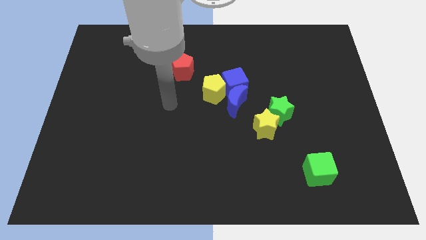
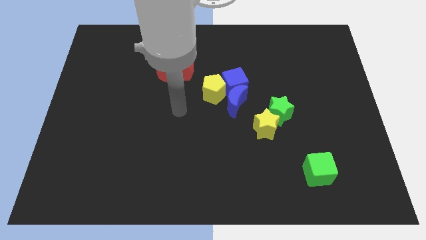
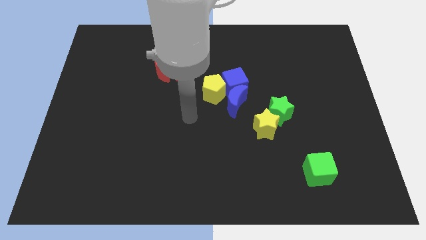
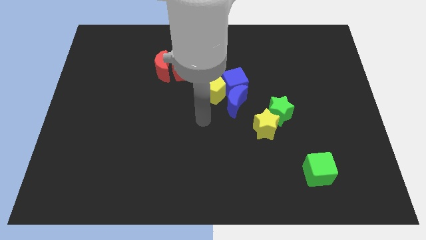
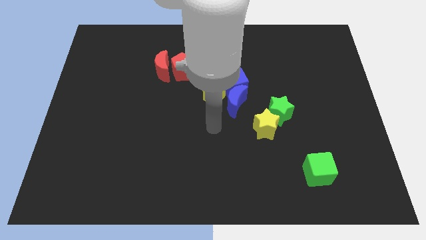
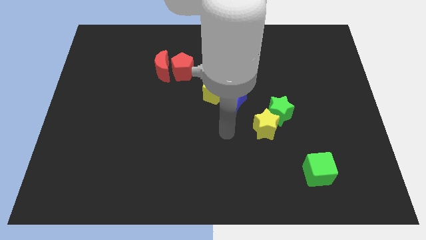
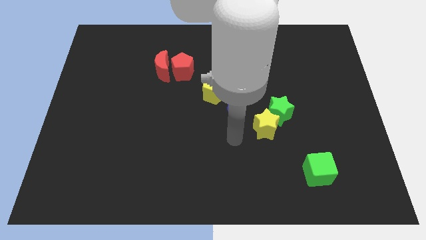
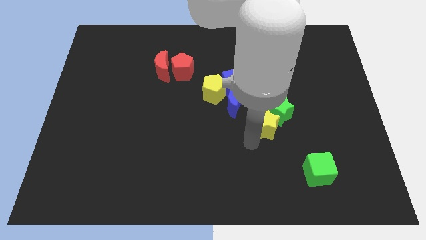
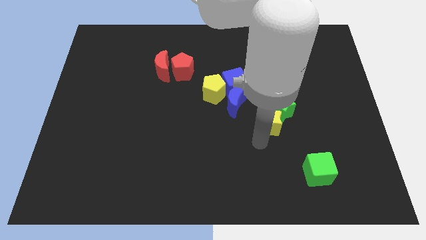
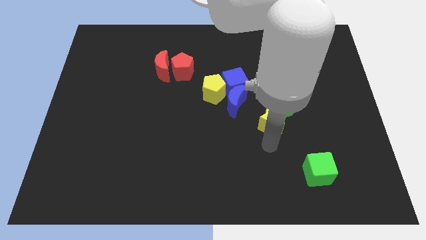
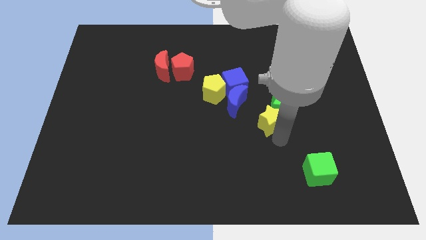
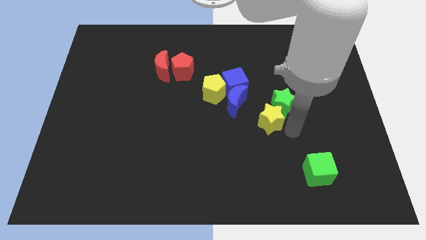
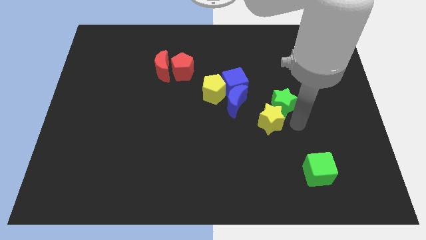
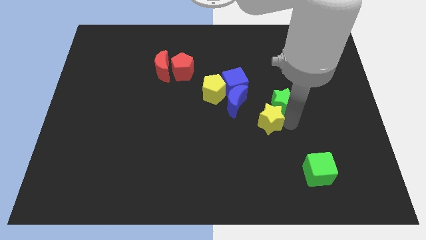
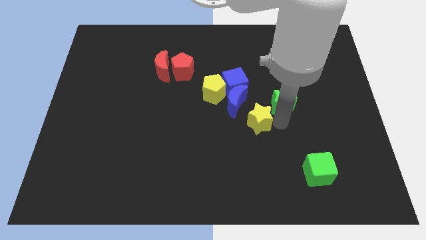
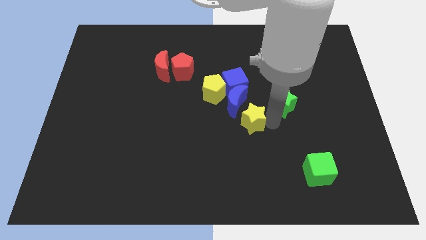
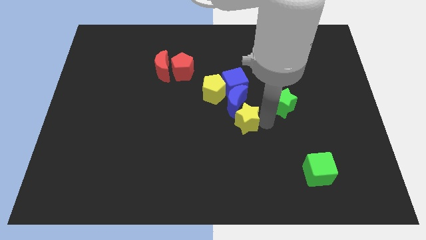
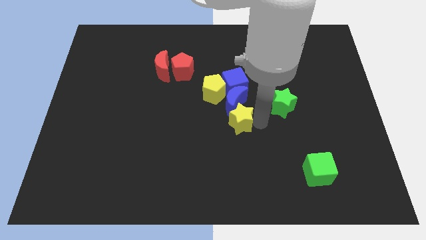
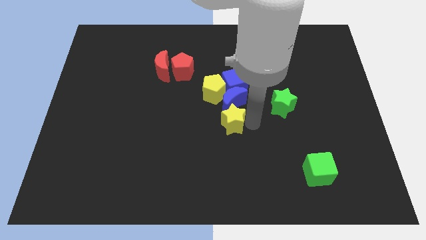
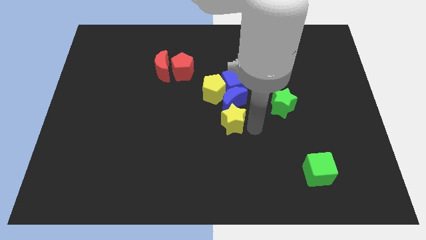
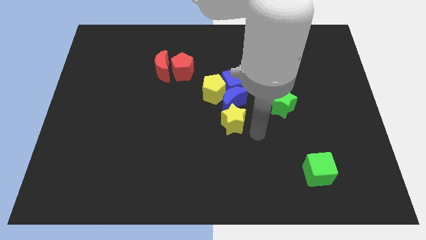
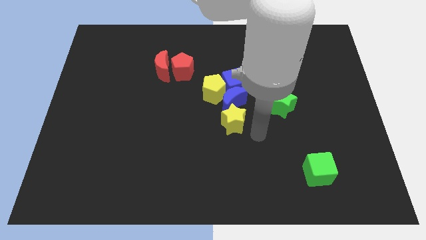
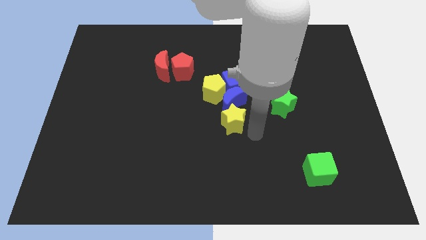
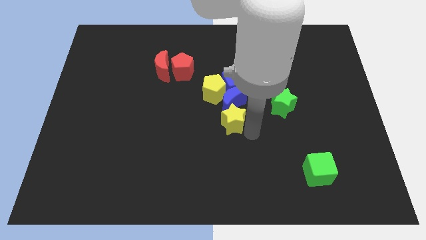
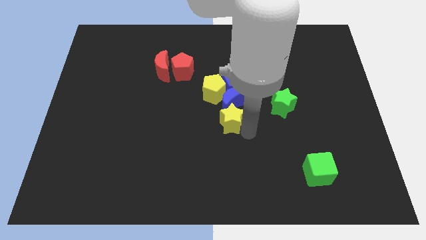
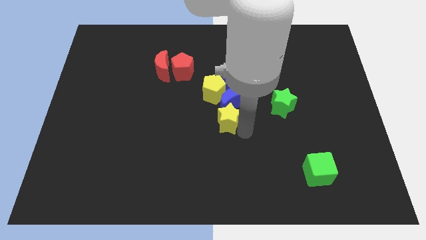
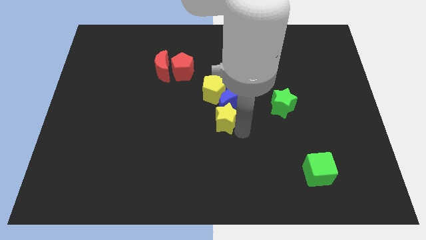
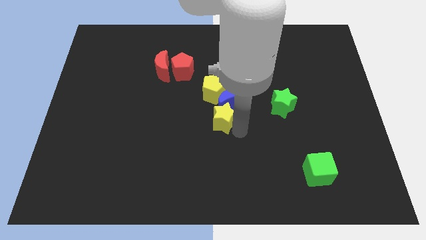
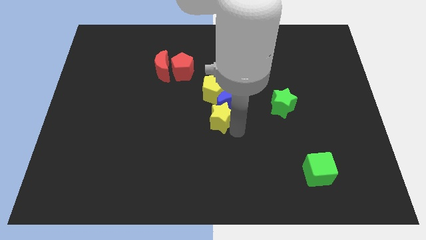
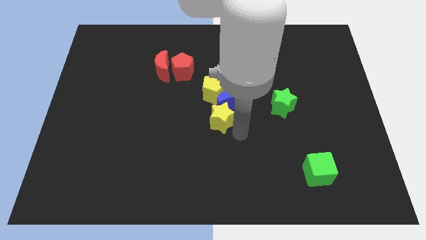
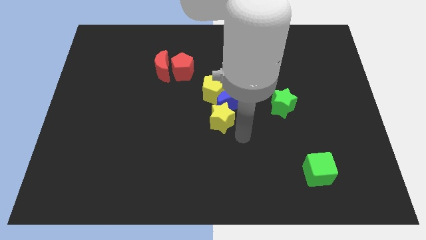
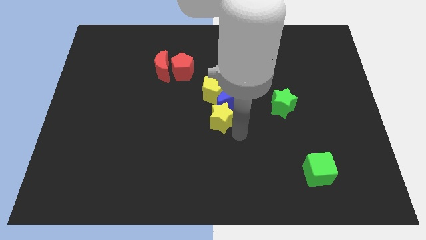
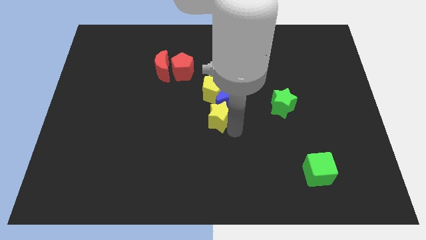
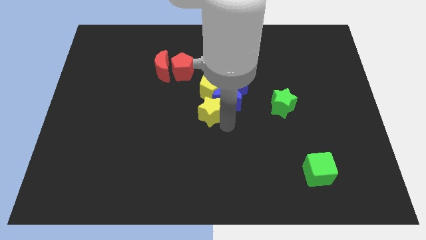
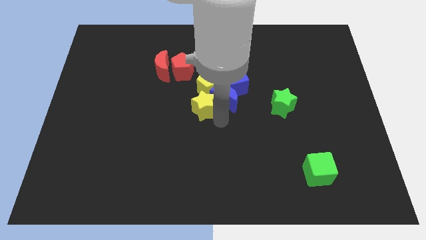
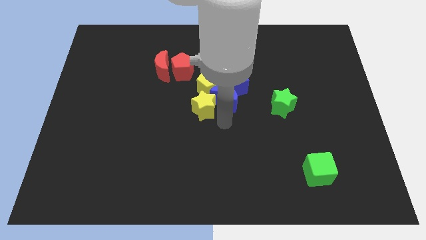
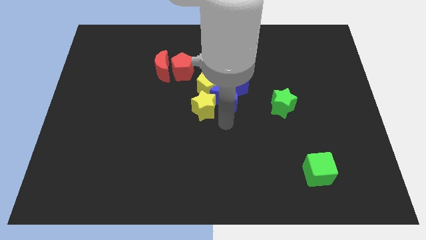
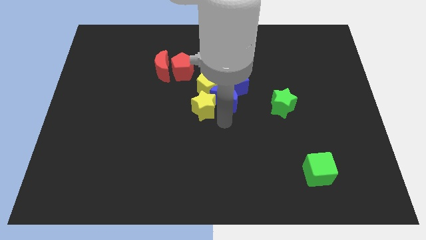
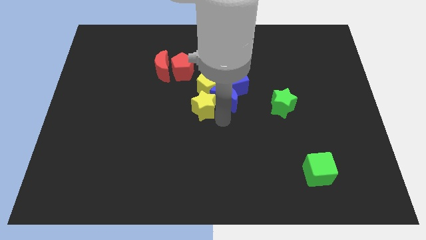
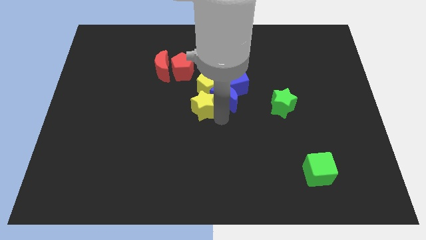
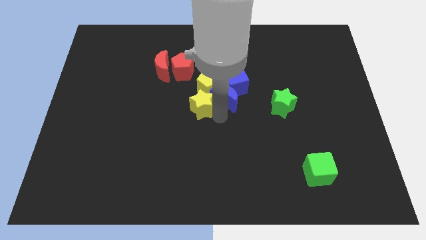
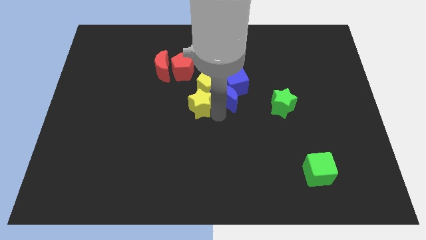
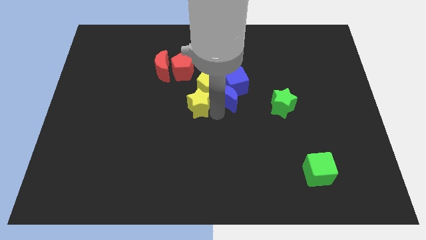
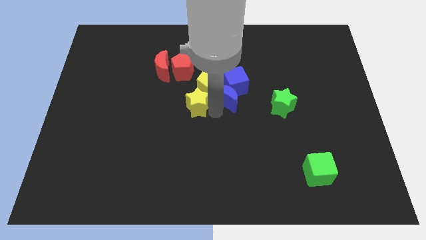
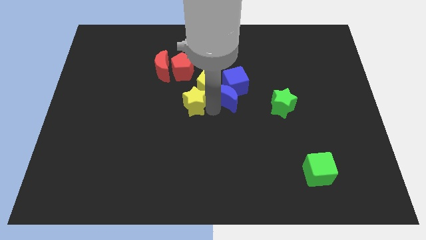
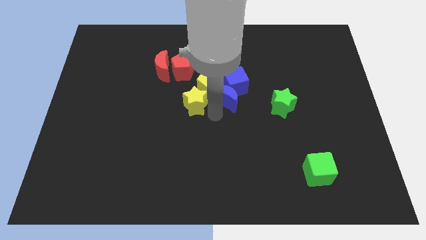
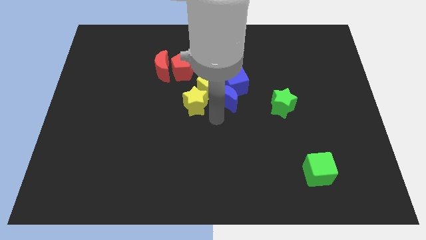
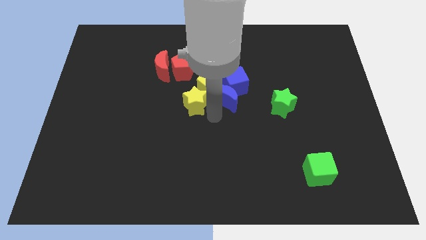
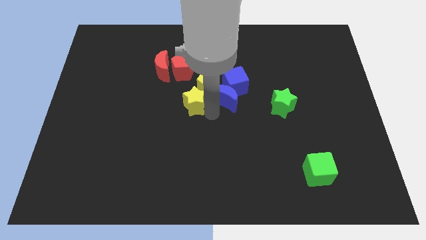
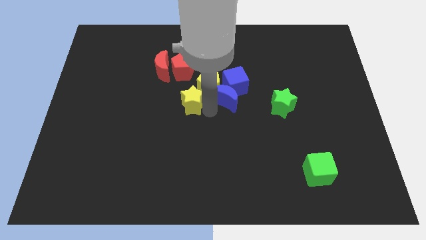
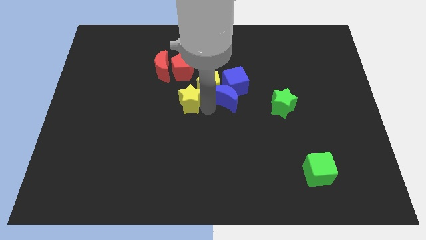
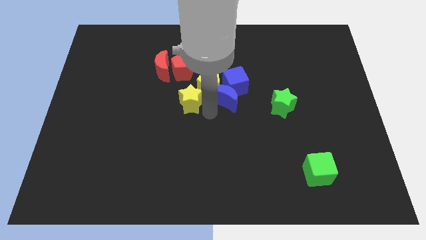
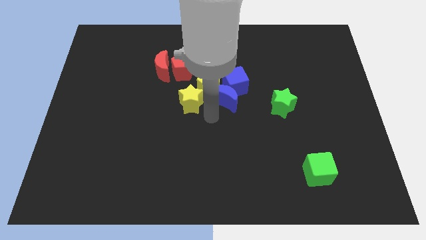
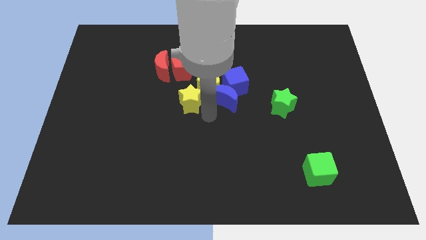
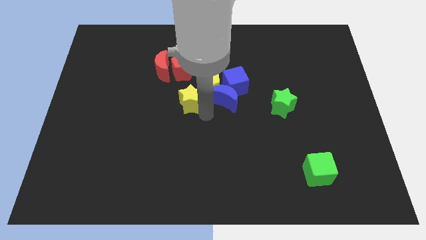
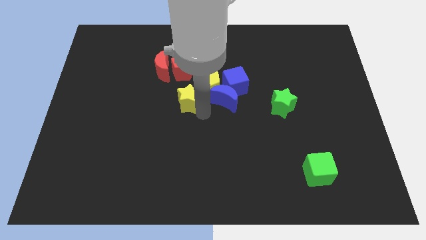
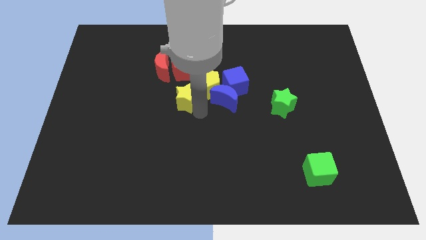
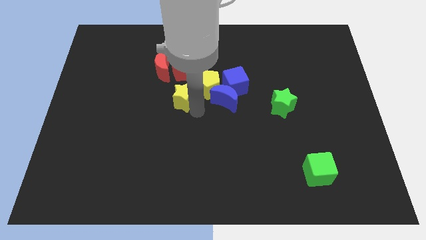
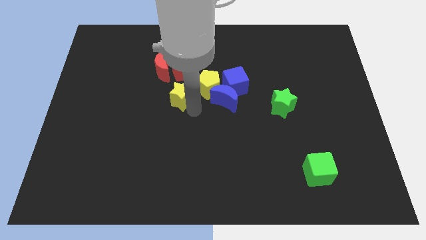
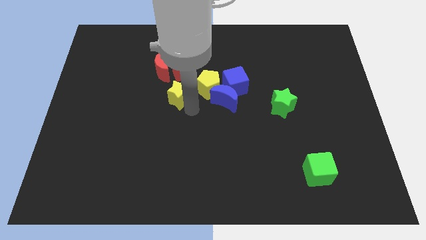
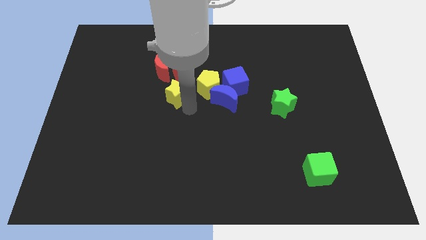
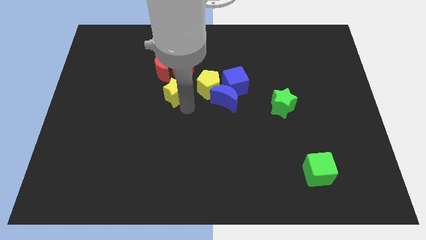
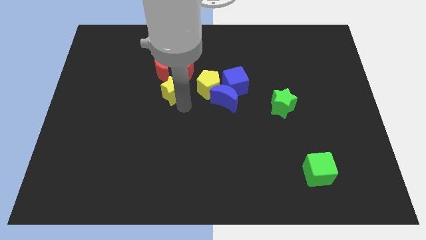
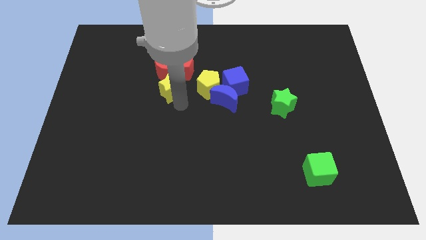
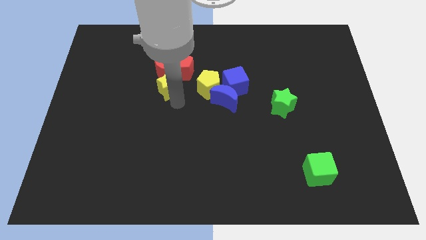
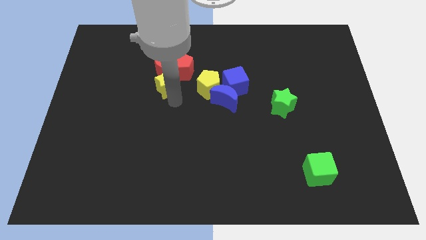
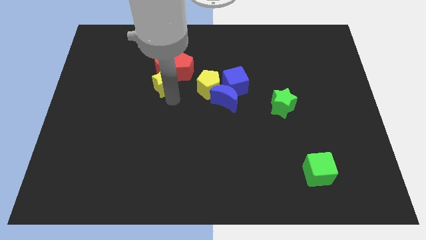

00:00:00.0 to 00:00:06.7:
slide the yellow star close to the red moon
